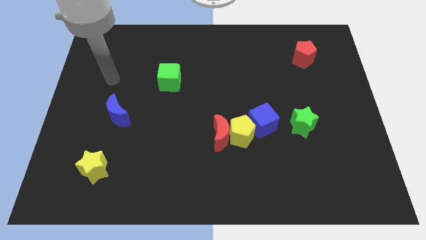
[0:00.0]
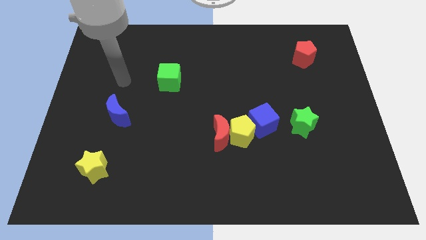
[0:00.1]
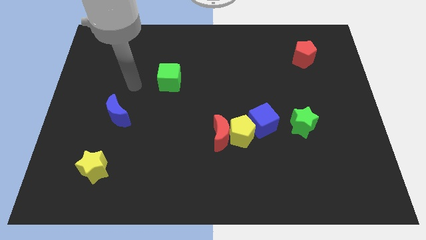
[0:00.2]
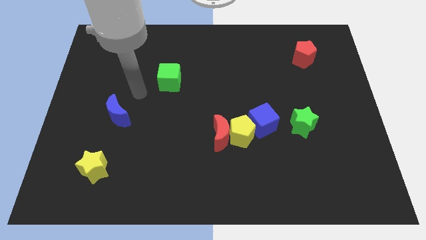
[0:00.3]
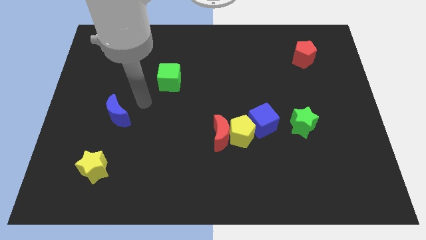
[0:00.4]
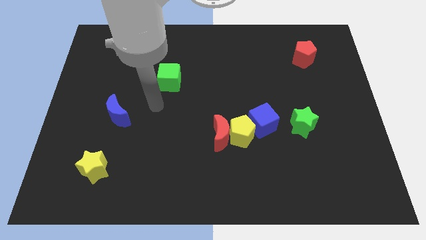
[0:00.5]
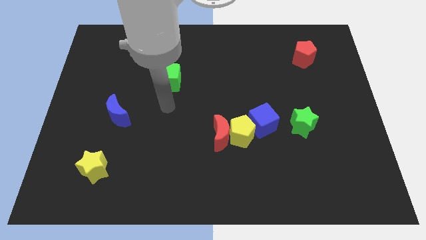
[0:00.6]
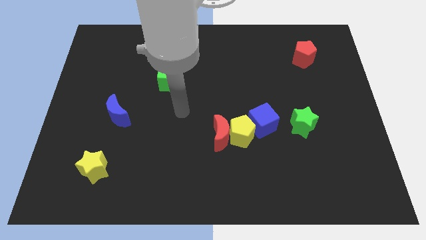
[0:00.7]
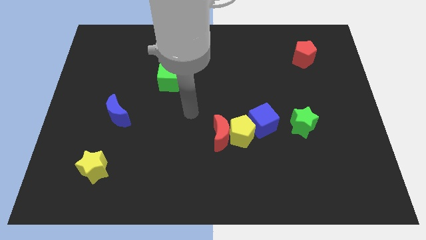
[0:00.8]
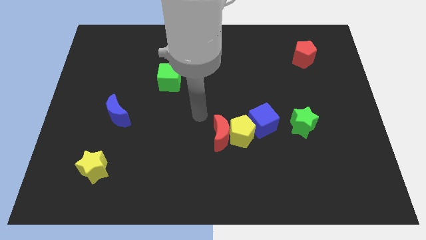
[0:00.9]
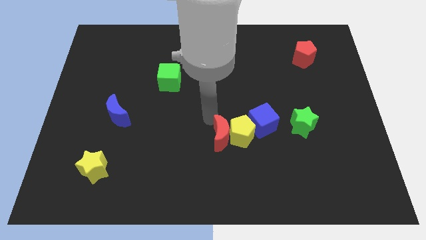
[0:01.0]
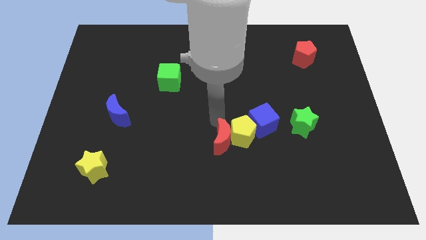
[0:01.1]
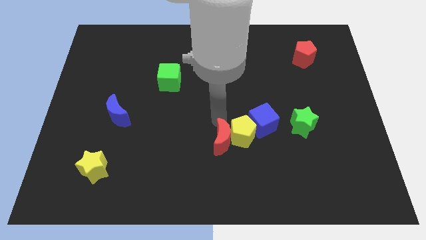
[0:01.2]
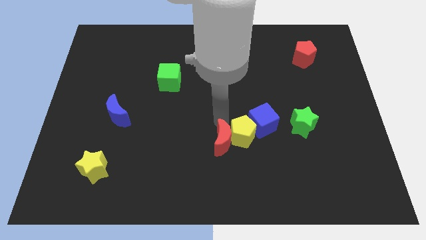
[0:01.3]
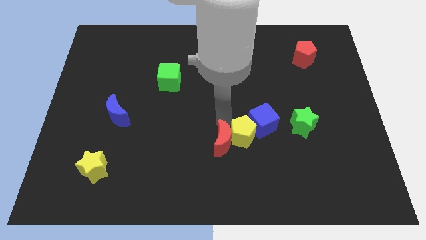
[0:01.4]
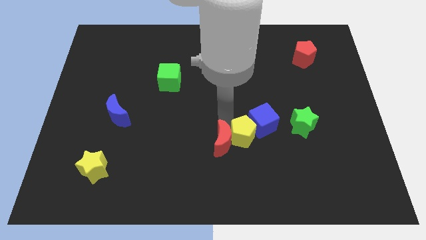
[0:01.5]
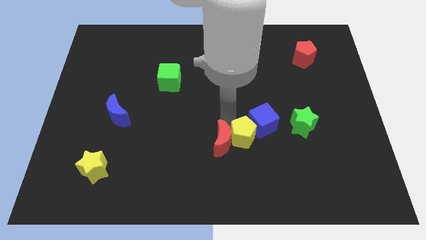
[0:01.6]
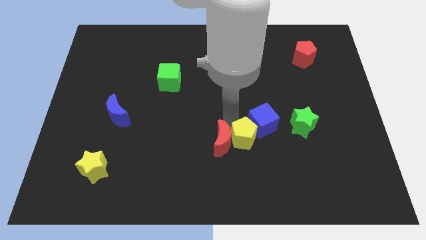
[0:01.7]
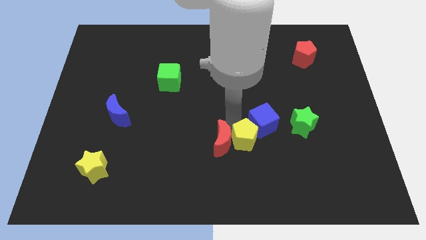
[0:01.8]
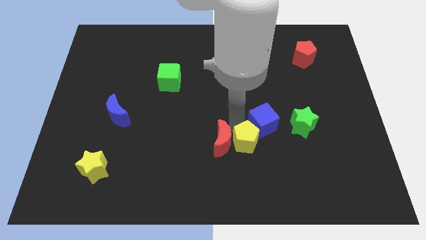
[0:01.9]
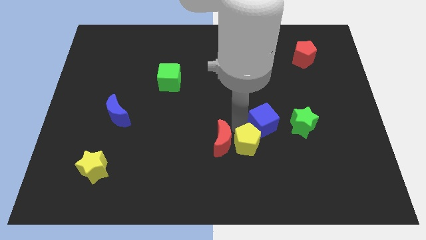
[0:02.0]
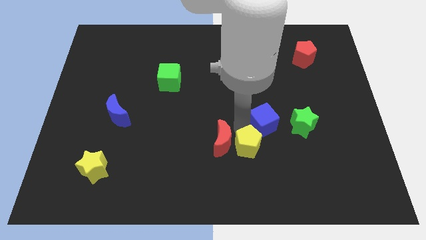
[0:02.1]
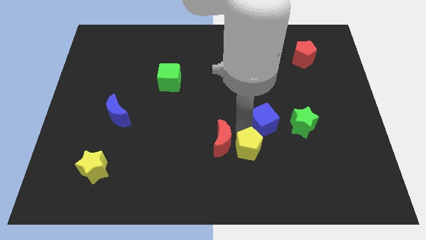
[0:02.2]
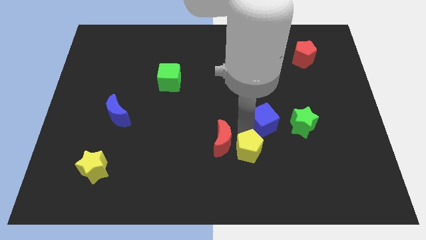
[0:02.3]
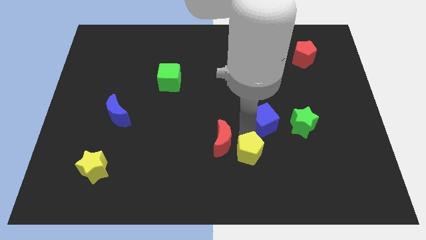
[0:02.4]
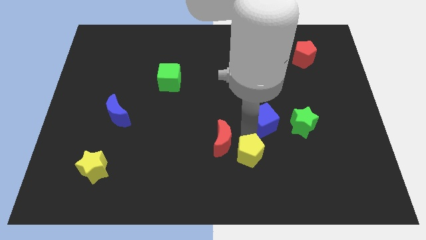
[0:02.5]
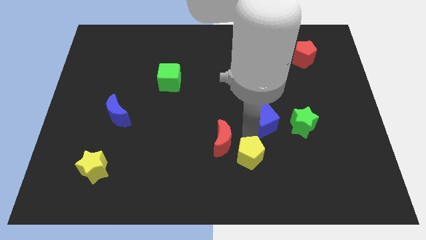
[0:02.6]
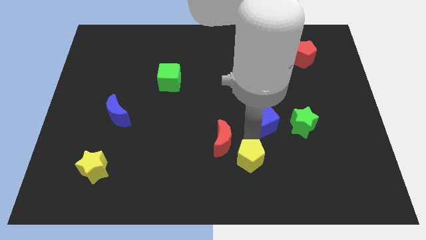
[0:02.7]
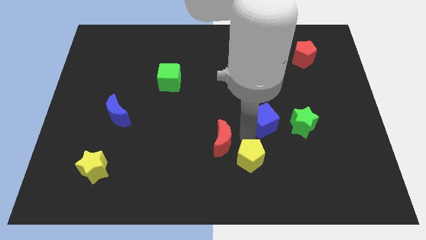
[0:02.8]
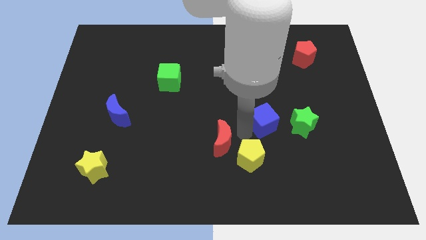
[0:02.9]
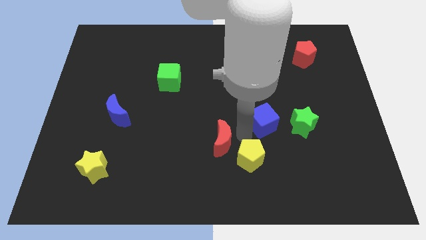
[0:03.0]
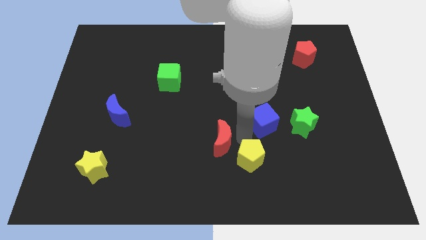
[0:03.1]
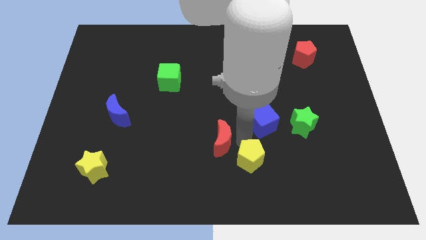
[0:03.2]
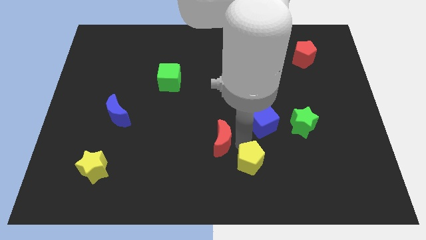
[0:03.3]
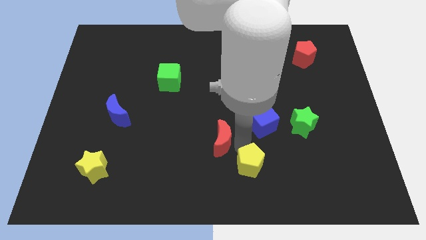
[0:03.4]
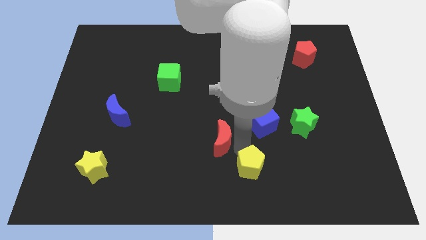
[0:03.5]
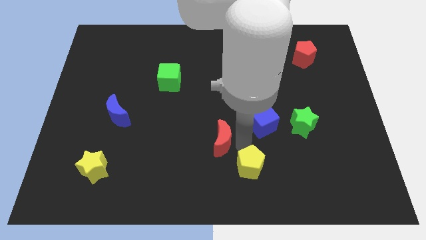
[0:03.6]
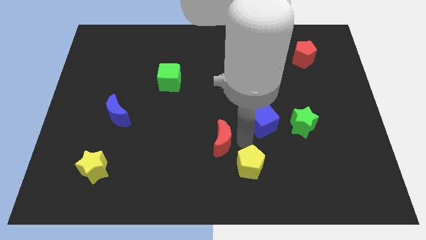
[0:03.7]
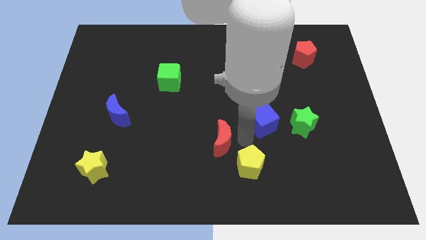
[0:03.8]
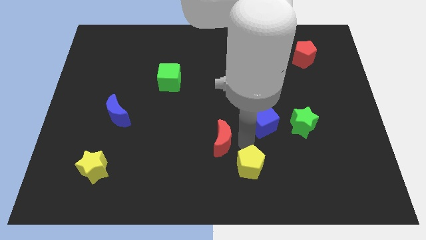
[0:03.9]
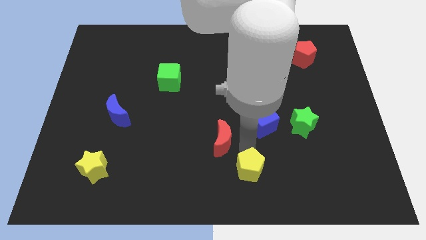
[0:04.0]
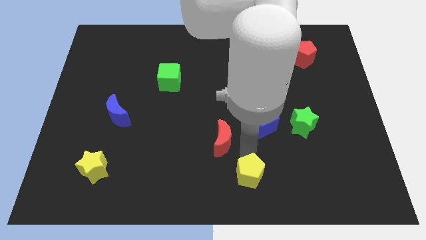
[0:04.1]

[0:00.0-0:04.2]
separate the yellow pentagon from the red moon and blue cube

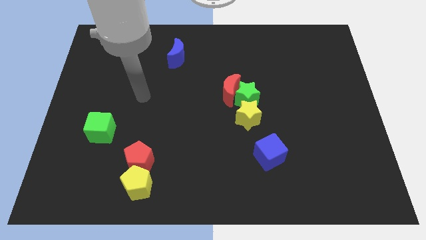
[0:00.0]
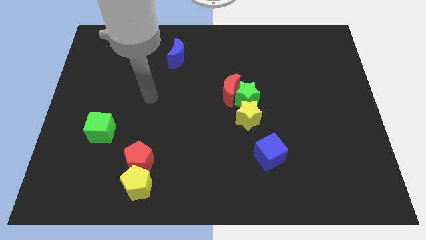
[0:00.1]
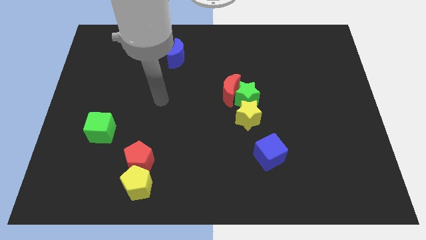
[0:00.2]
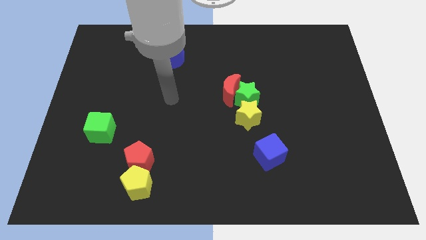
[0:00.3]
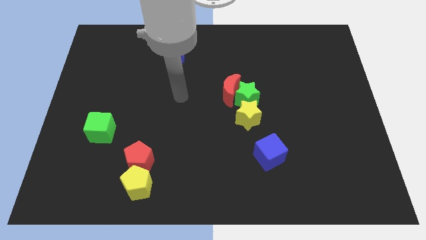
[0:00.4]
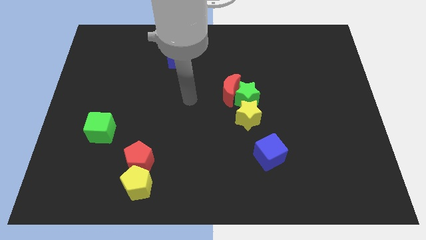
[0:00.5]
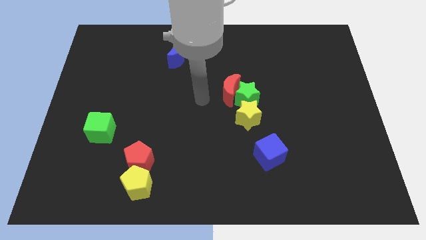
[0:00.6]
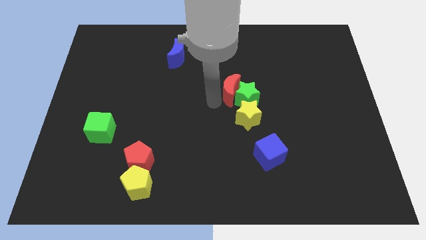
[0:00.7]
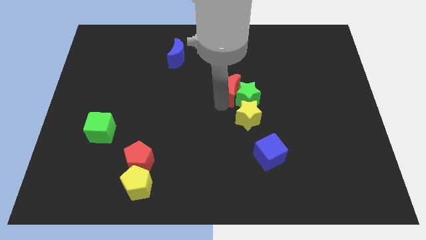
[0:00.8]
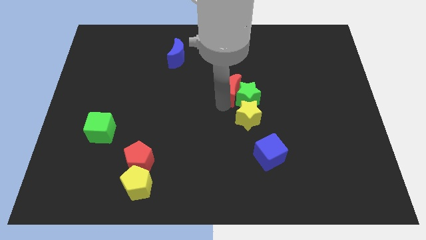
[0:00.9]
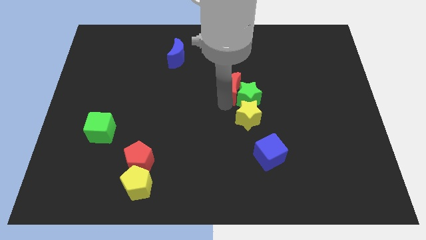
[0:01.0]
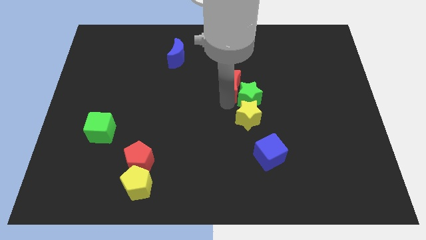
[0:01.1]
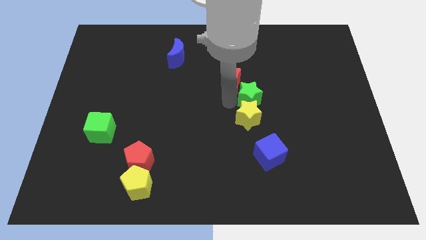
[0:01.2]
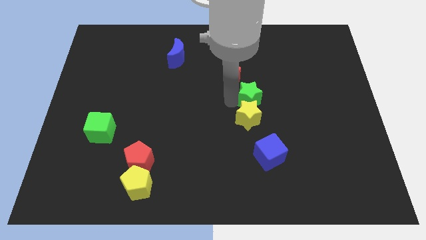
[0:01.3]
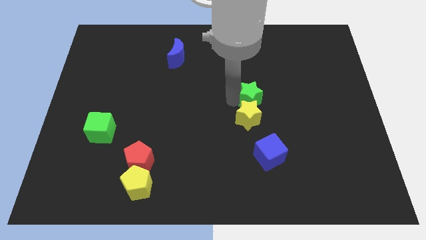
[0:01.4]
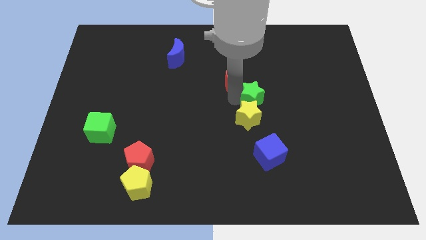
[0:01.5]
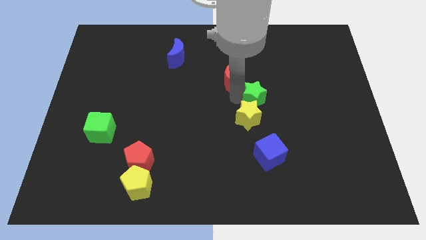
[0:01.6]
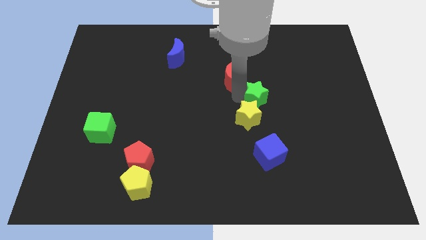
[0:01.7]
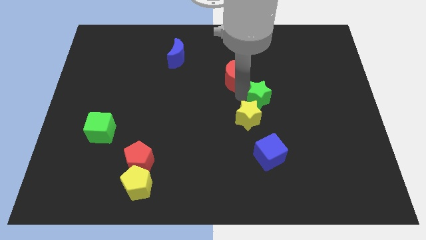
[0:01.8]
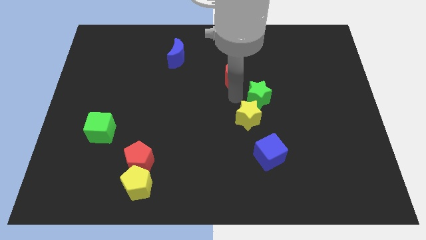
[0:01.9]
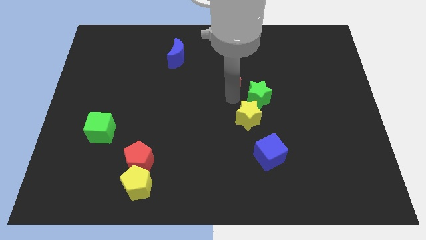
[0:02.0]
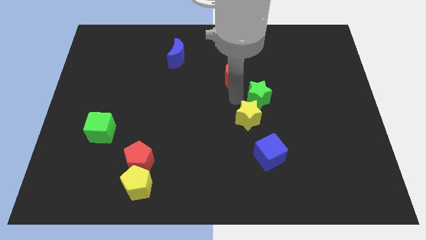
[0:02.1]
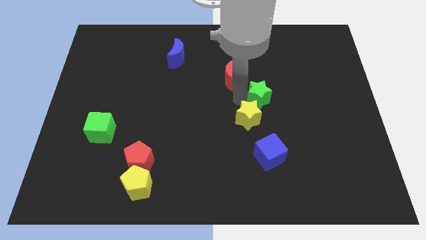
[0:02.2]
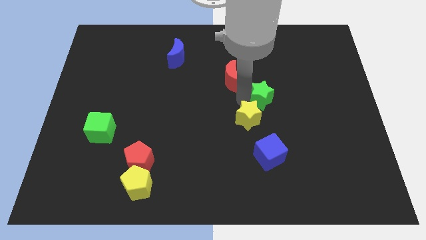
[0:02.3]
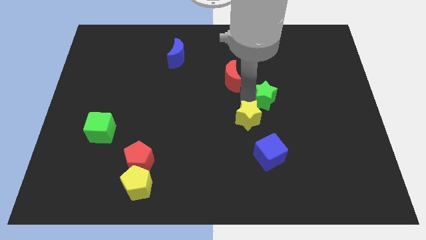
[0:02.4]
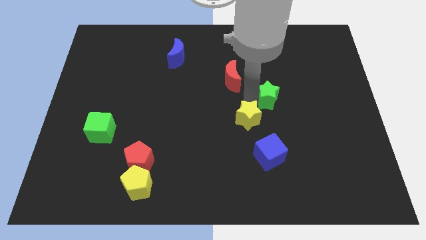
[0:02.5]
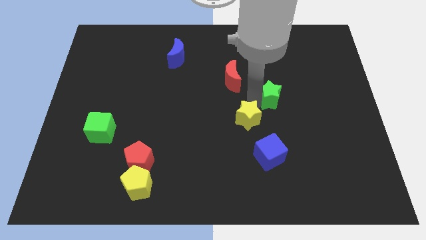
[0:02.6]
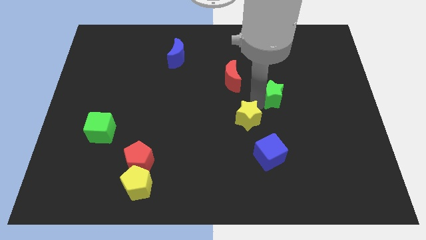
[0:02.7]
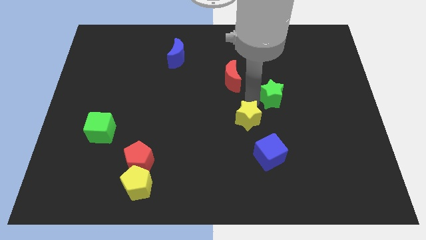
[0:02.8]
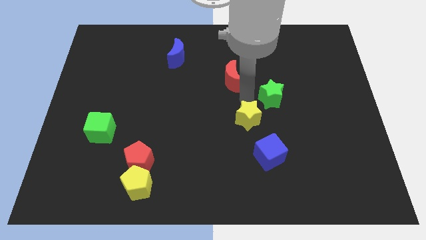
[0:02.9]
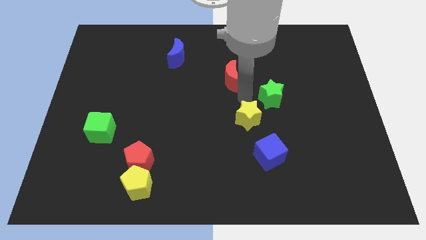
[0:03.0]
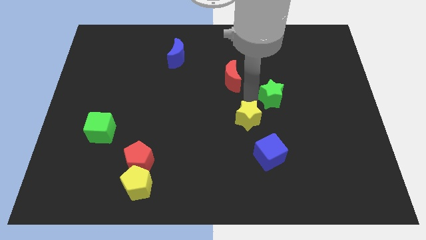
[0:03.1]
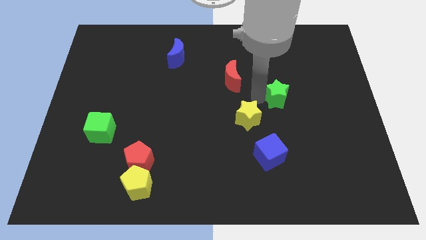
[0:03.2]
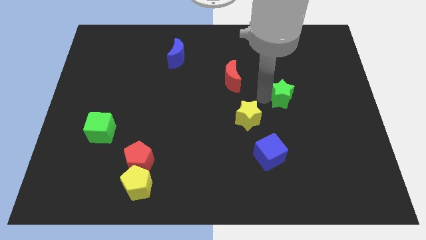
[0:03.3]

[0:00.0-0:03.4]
move the green star away from the red moon and yellow star

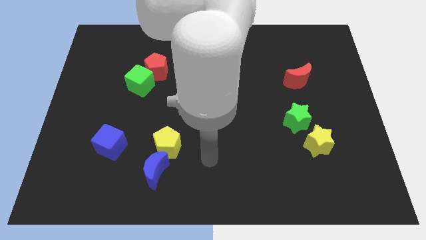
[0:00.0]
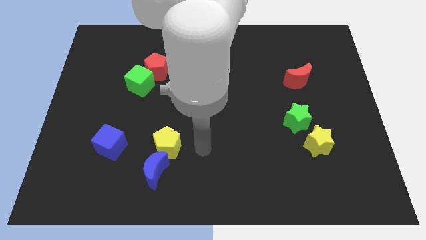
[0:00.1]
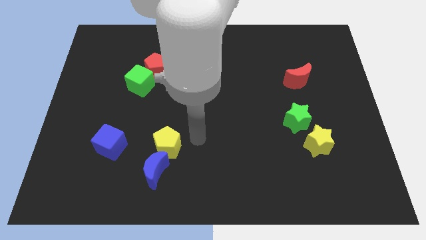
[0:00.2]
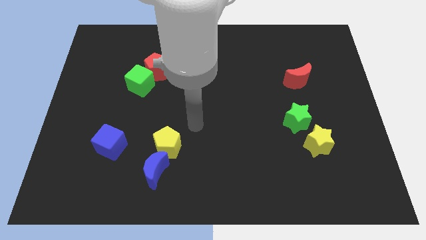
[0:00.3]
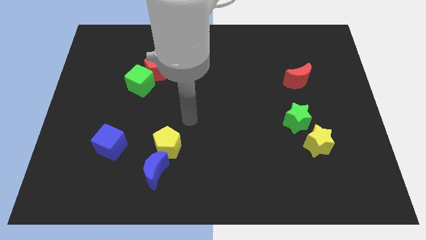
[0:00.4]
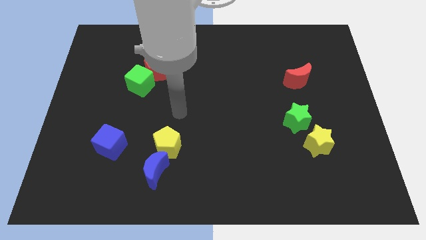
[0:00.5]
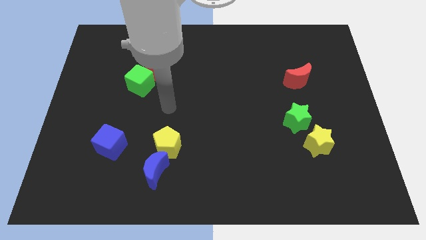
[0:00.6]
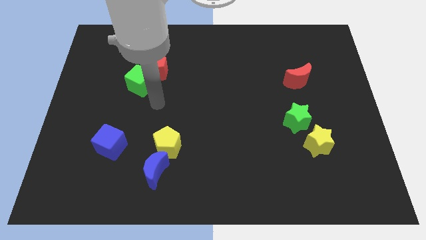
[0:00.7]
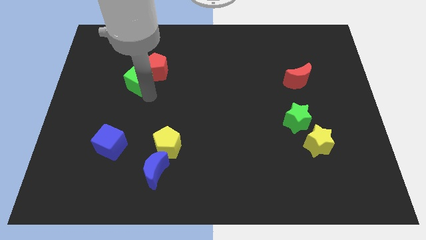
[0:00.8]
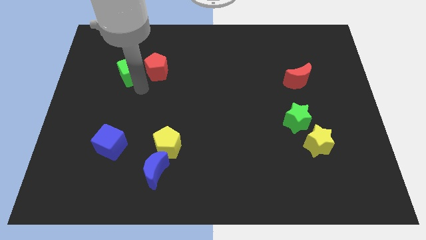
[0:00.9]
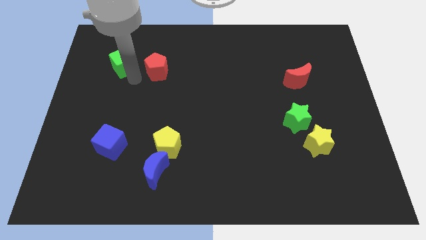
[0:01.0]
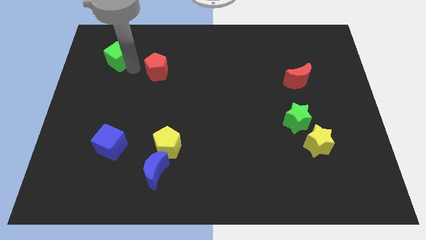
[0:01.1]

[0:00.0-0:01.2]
move the red pentagon away from the green cube

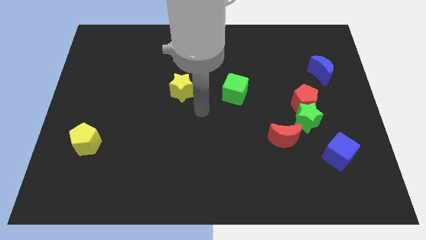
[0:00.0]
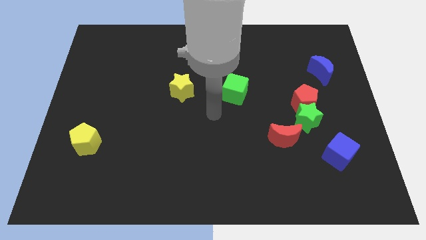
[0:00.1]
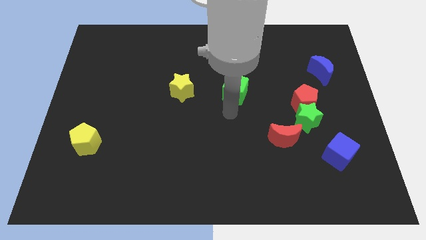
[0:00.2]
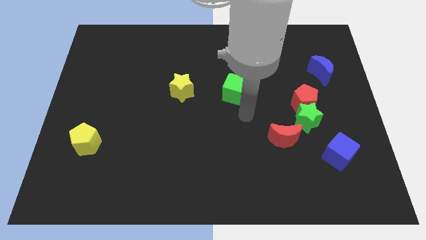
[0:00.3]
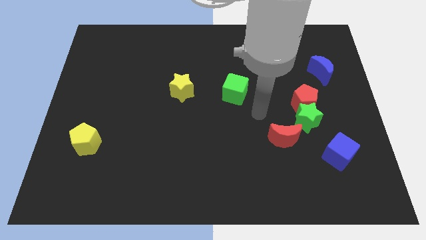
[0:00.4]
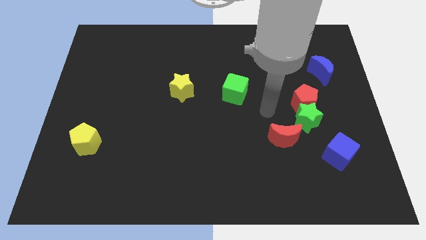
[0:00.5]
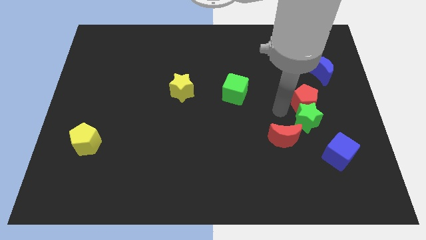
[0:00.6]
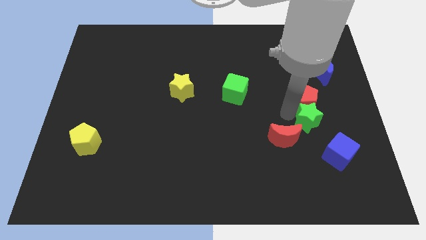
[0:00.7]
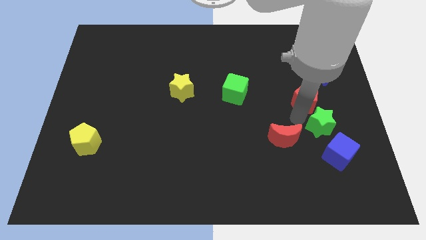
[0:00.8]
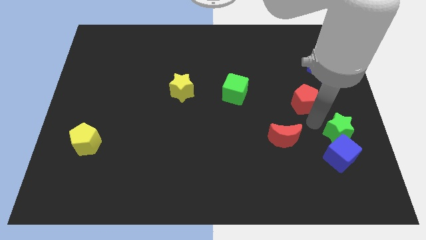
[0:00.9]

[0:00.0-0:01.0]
separate the red pentagon from the green star
